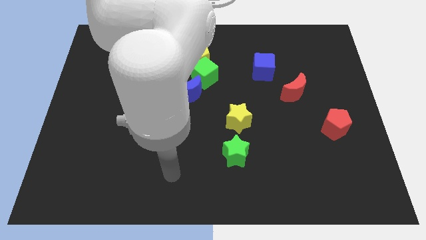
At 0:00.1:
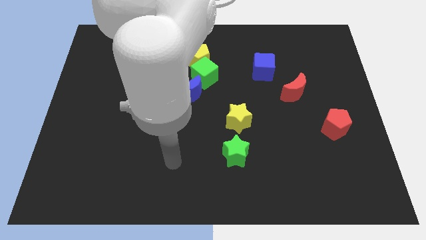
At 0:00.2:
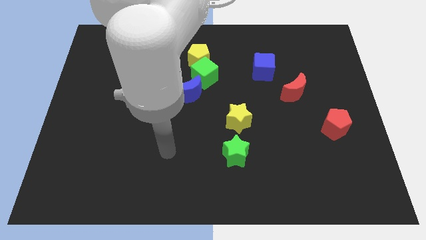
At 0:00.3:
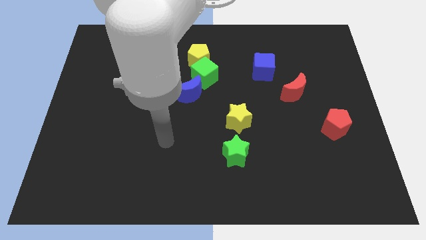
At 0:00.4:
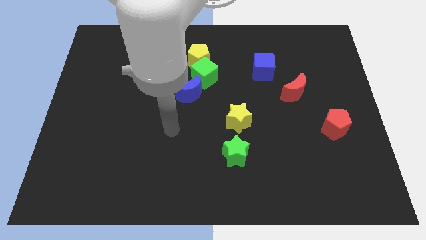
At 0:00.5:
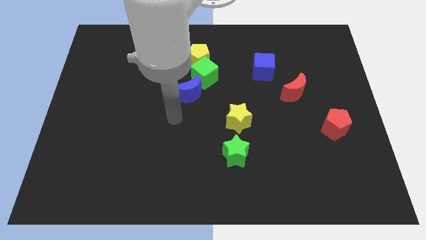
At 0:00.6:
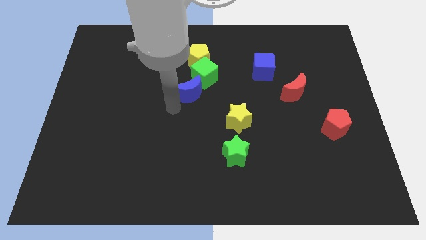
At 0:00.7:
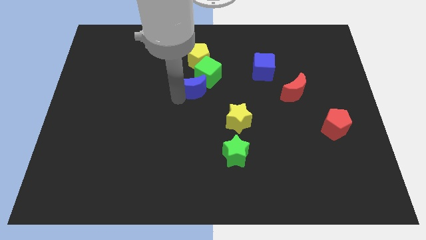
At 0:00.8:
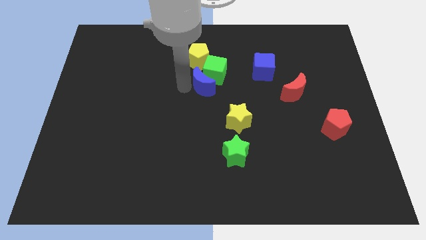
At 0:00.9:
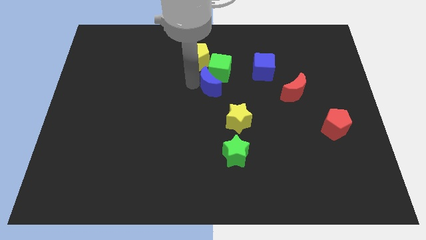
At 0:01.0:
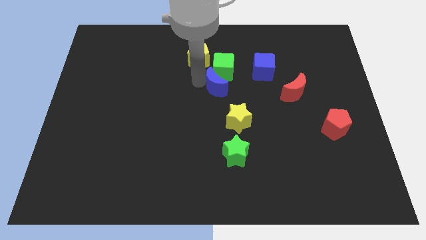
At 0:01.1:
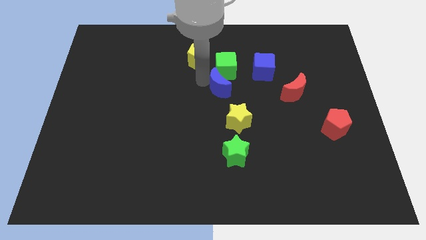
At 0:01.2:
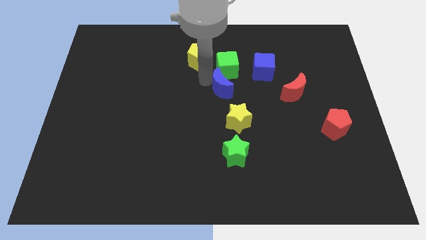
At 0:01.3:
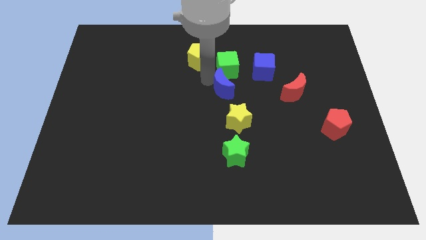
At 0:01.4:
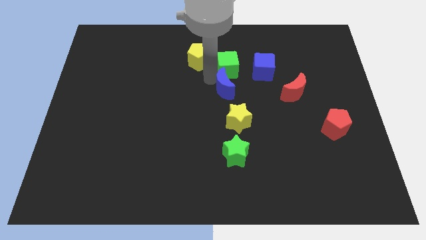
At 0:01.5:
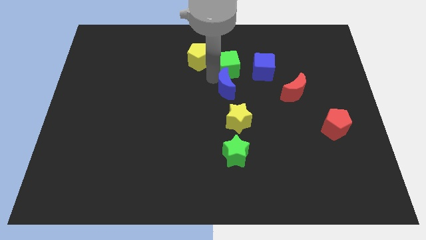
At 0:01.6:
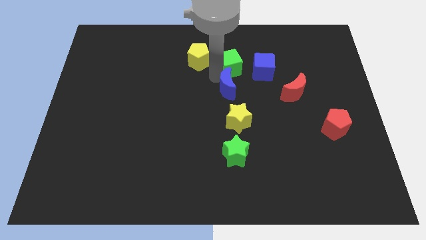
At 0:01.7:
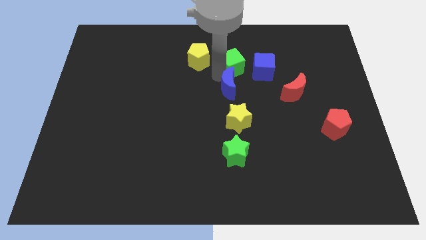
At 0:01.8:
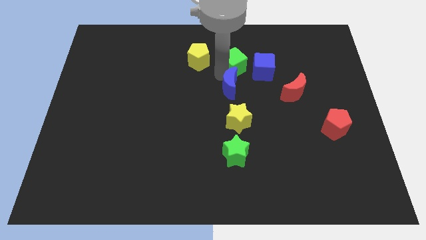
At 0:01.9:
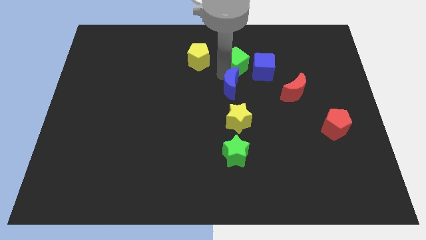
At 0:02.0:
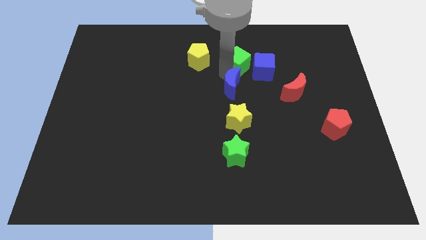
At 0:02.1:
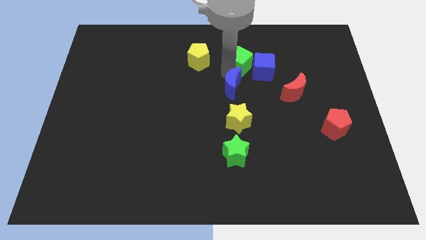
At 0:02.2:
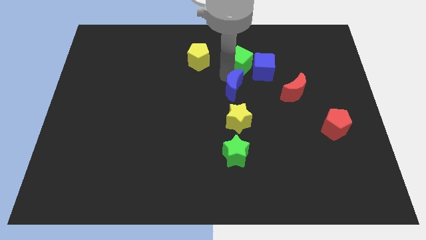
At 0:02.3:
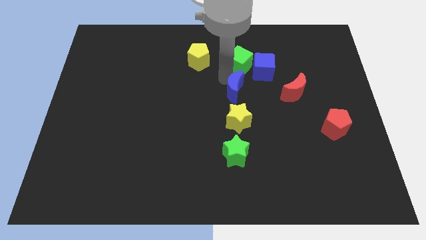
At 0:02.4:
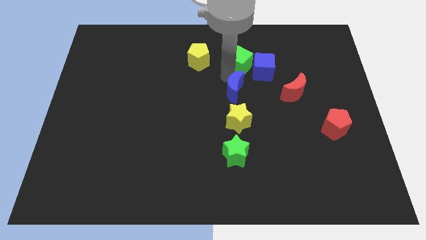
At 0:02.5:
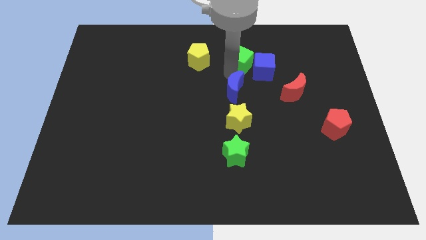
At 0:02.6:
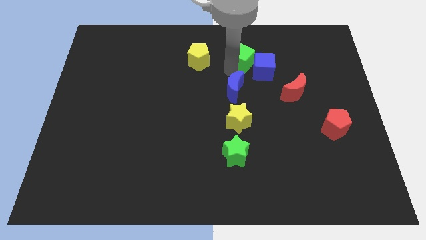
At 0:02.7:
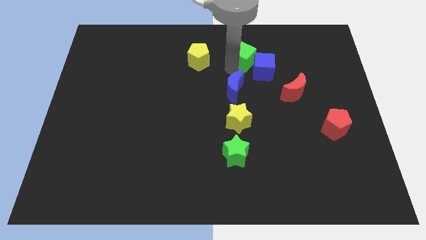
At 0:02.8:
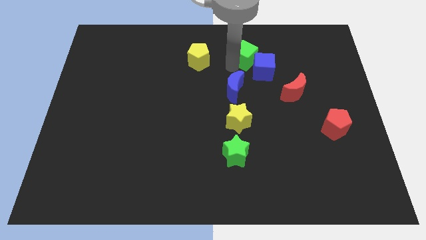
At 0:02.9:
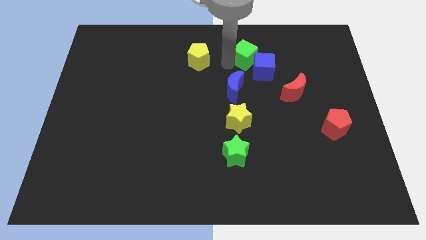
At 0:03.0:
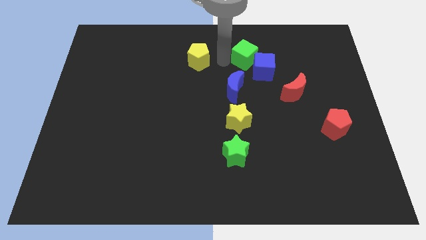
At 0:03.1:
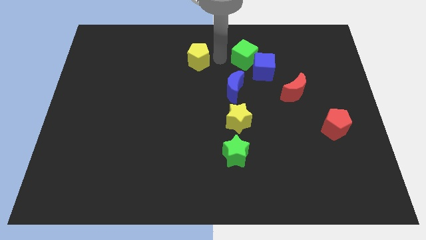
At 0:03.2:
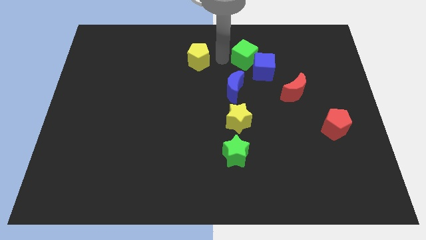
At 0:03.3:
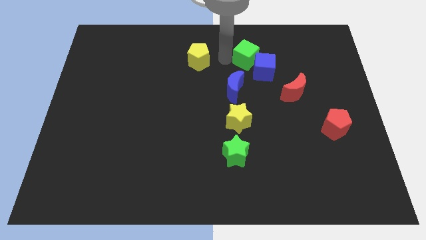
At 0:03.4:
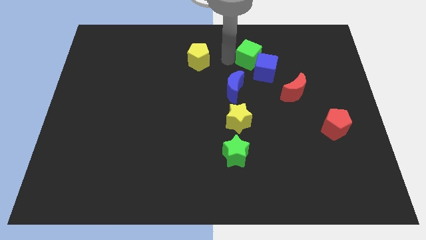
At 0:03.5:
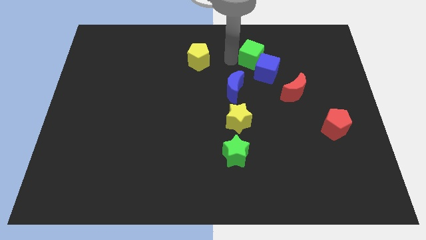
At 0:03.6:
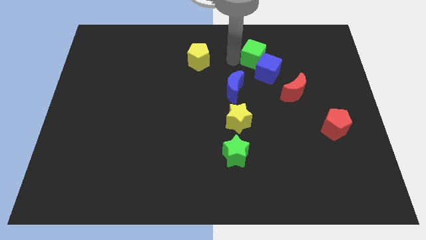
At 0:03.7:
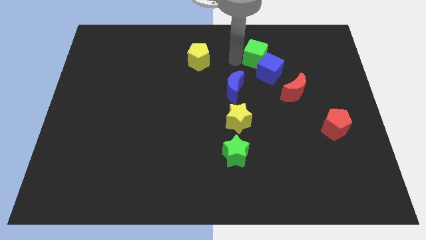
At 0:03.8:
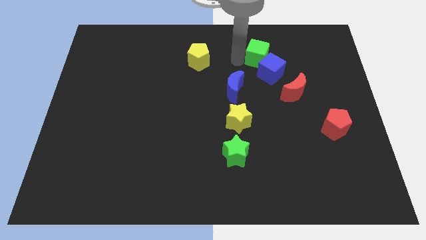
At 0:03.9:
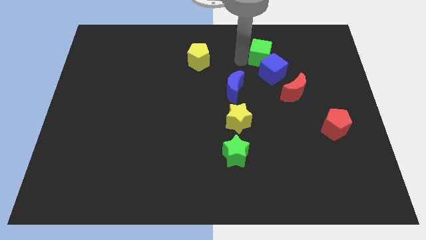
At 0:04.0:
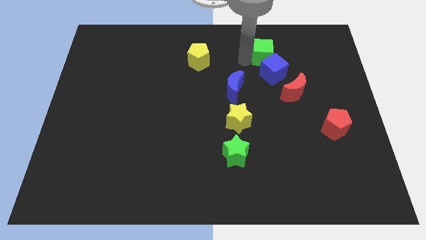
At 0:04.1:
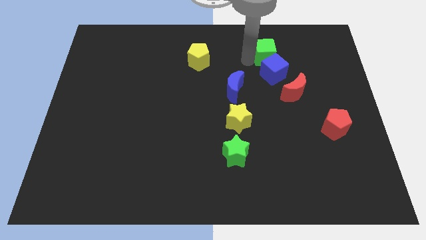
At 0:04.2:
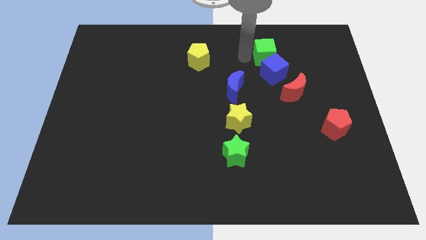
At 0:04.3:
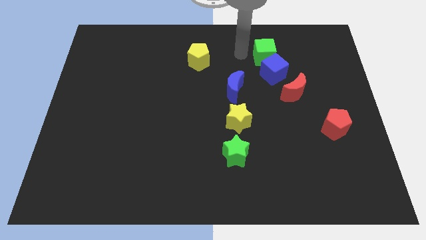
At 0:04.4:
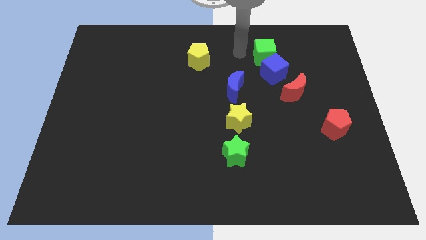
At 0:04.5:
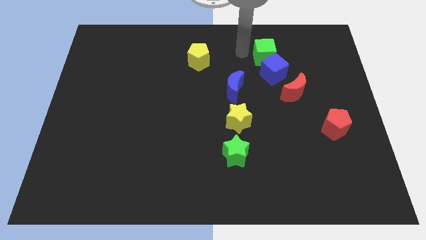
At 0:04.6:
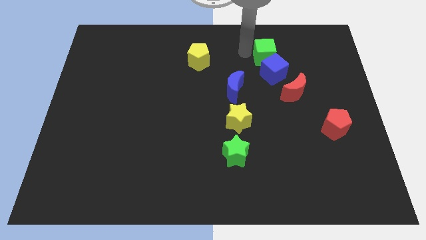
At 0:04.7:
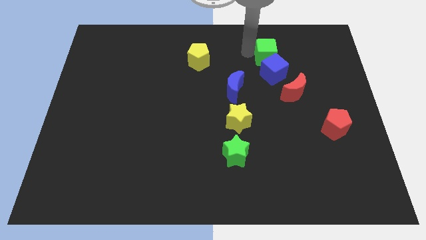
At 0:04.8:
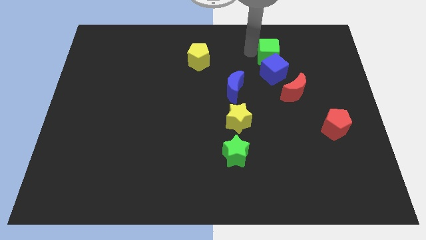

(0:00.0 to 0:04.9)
move the green cube to the top right of the blue cube

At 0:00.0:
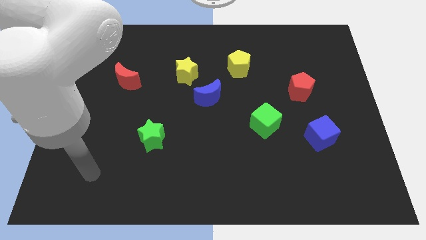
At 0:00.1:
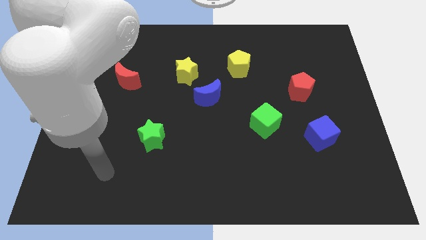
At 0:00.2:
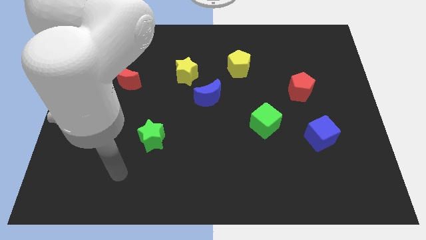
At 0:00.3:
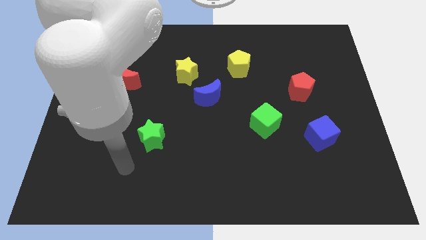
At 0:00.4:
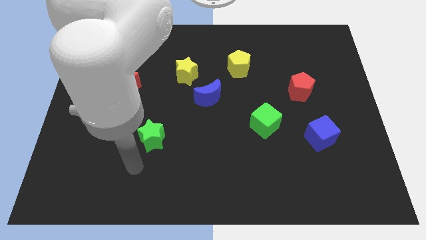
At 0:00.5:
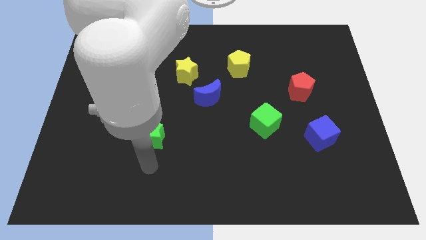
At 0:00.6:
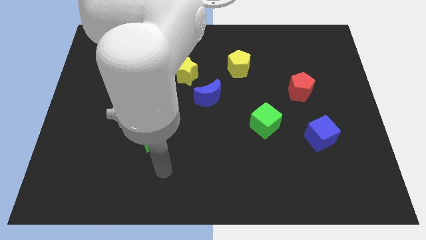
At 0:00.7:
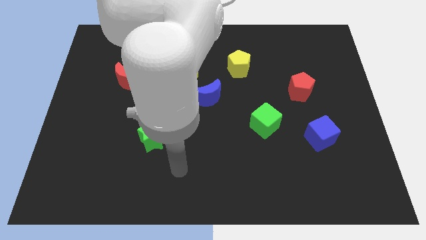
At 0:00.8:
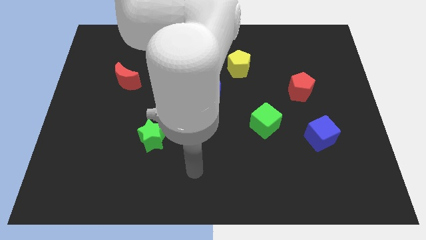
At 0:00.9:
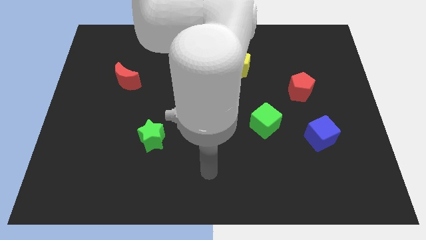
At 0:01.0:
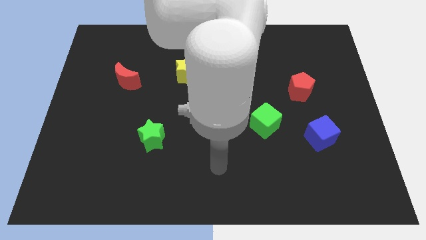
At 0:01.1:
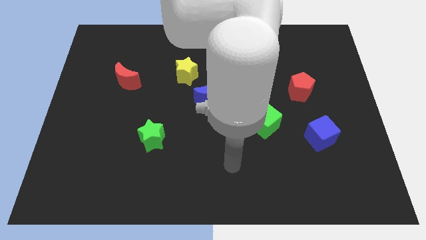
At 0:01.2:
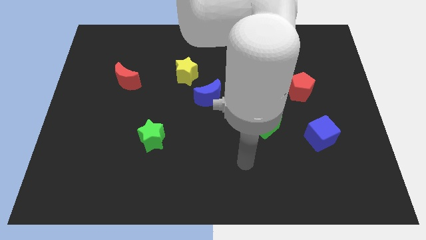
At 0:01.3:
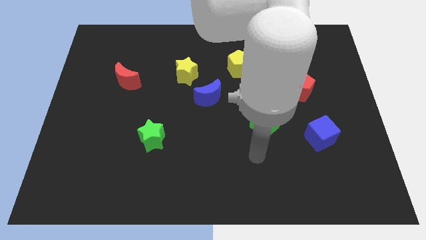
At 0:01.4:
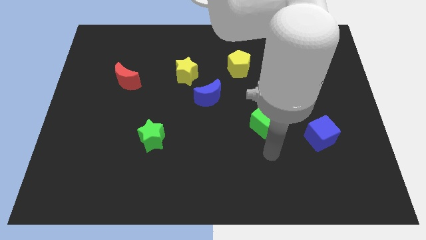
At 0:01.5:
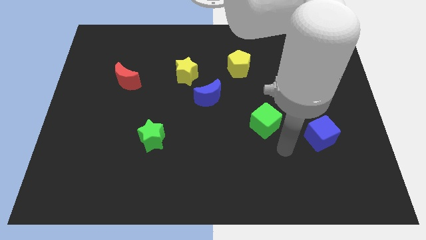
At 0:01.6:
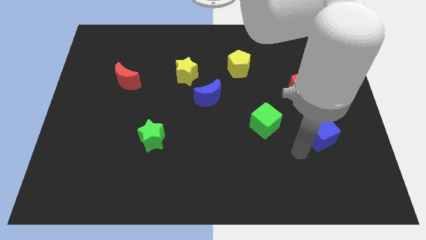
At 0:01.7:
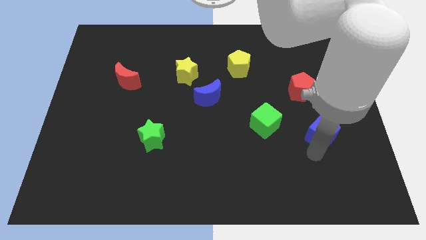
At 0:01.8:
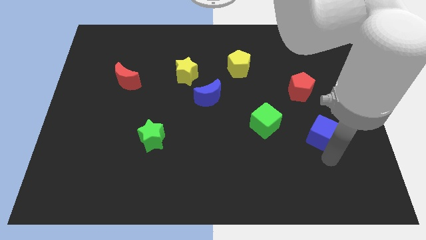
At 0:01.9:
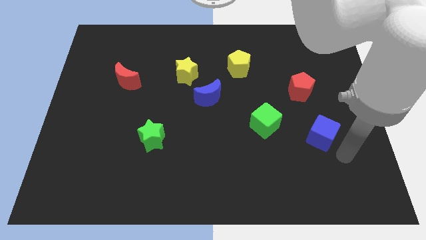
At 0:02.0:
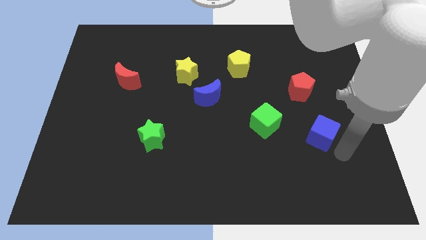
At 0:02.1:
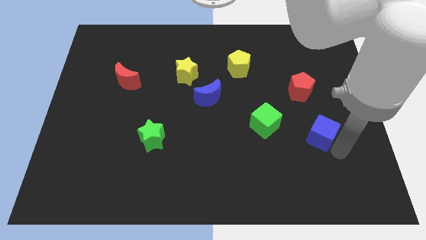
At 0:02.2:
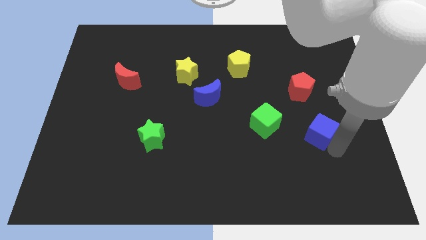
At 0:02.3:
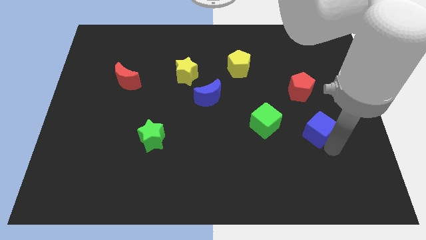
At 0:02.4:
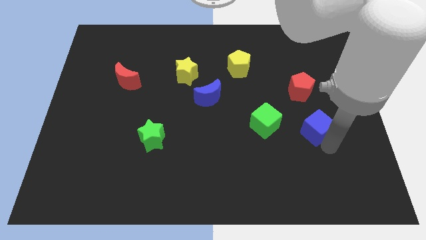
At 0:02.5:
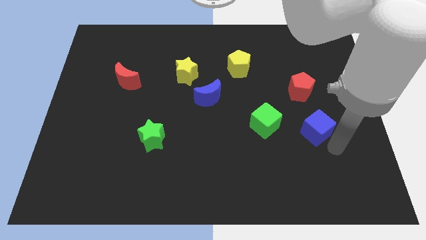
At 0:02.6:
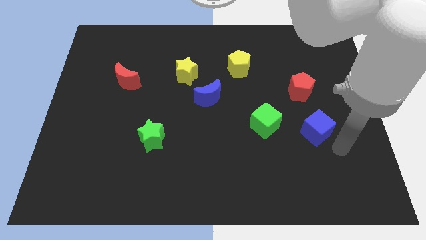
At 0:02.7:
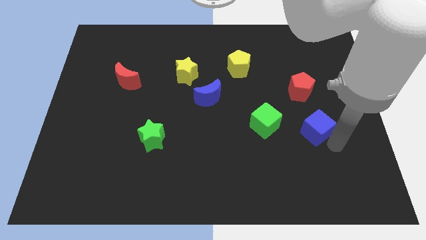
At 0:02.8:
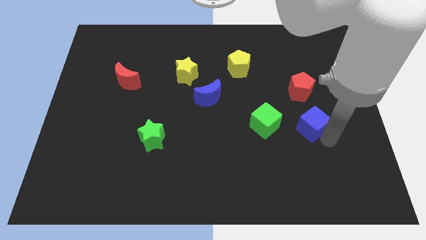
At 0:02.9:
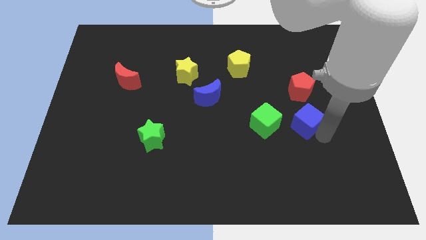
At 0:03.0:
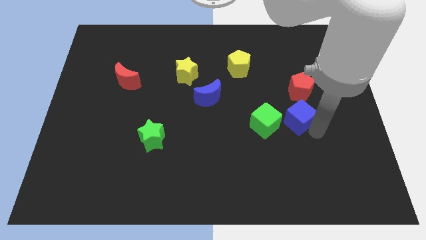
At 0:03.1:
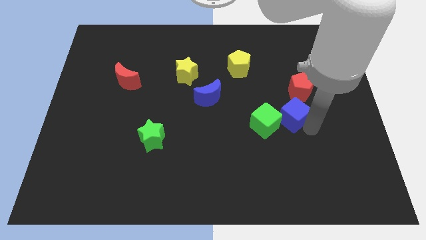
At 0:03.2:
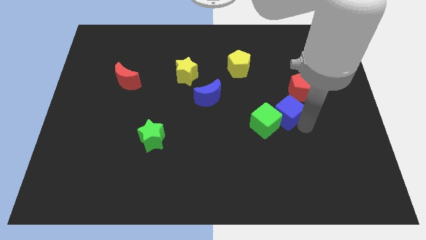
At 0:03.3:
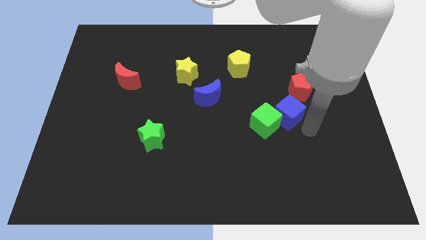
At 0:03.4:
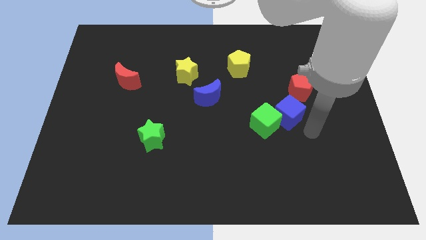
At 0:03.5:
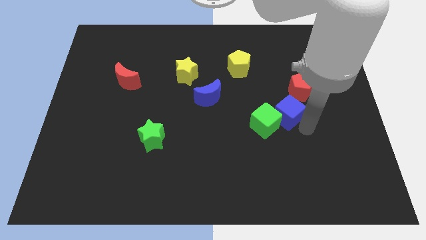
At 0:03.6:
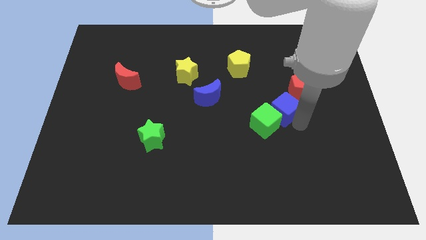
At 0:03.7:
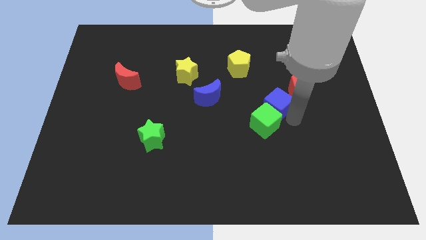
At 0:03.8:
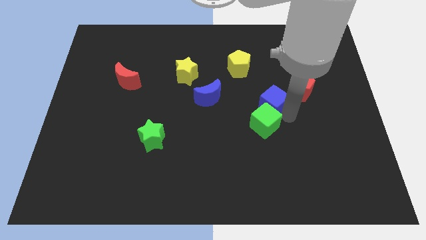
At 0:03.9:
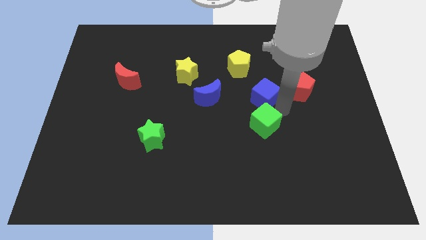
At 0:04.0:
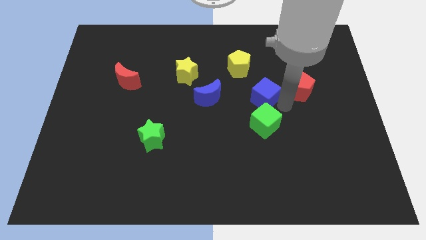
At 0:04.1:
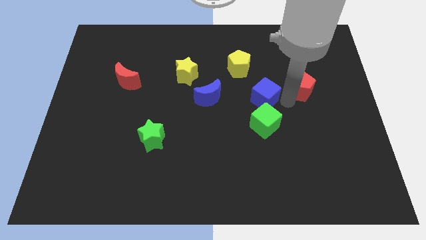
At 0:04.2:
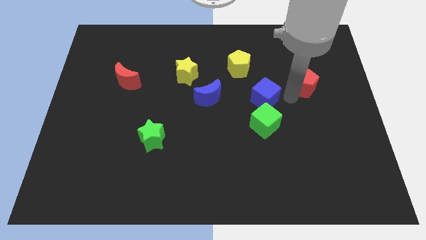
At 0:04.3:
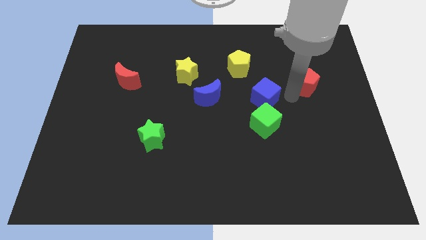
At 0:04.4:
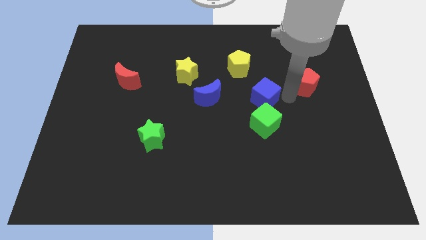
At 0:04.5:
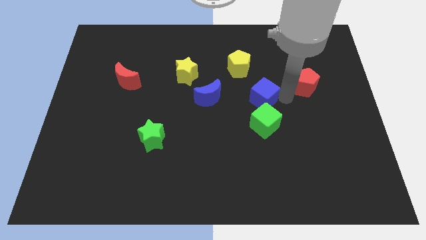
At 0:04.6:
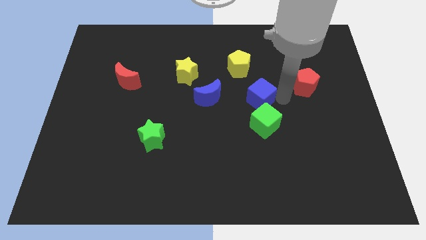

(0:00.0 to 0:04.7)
put the blue cube to the bottom side of the yellow pentagon
